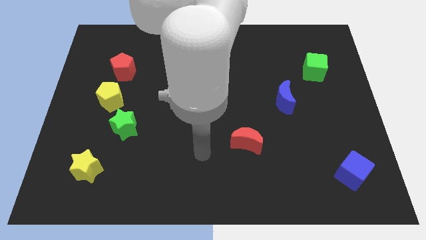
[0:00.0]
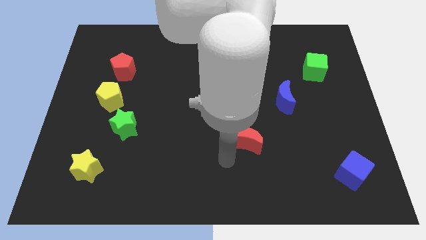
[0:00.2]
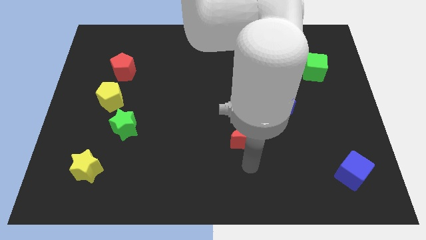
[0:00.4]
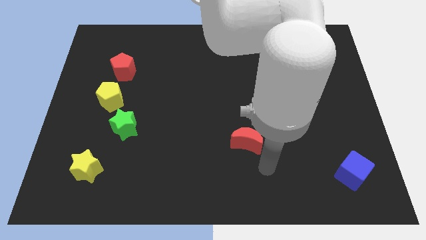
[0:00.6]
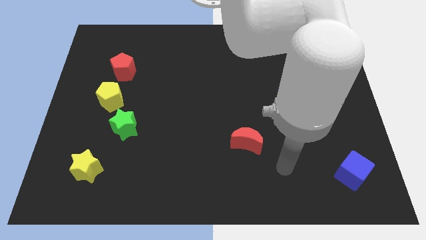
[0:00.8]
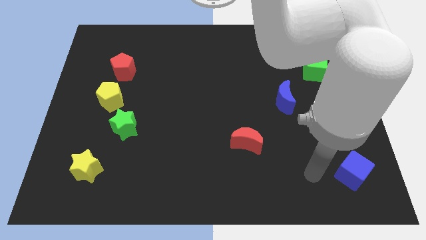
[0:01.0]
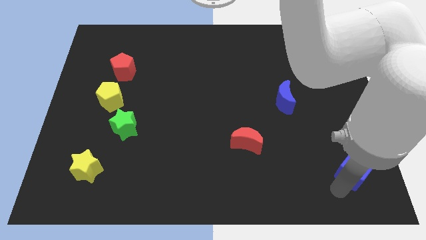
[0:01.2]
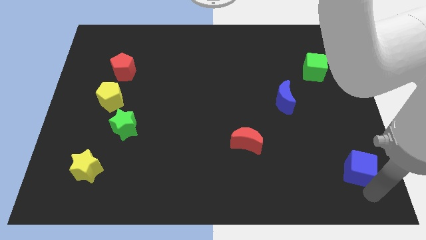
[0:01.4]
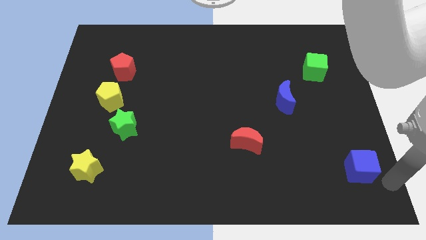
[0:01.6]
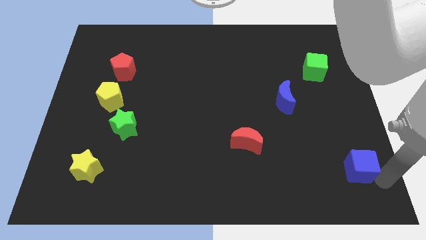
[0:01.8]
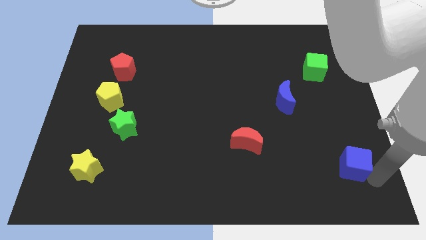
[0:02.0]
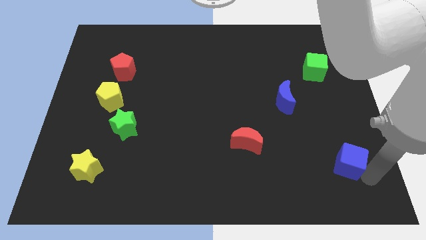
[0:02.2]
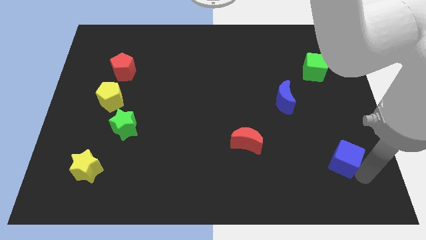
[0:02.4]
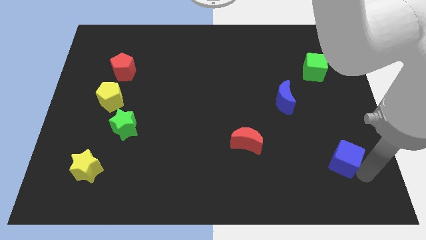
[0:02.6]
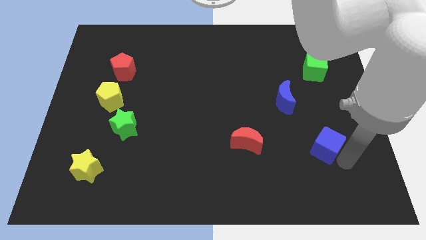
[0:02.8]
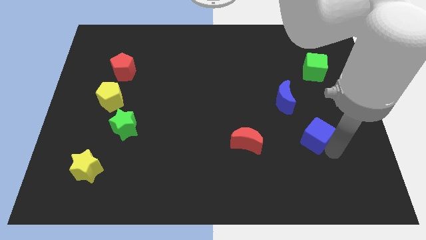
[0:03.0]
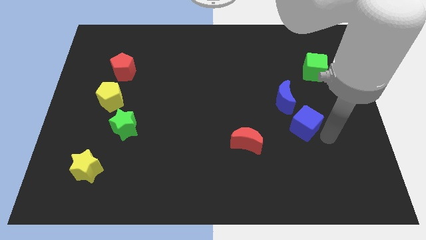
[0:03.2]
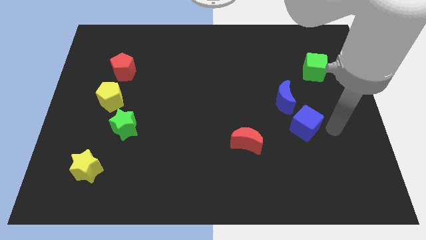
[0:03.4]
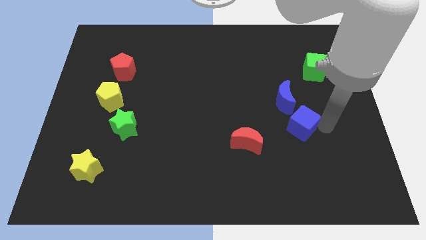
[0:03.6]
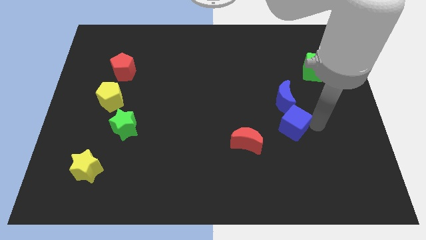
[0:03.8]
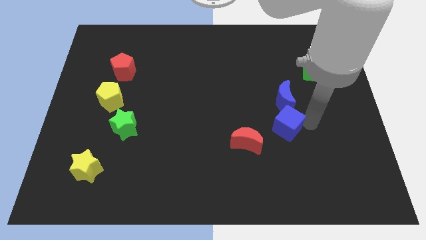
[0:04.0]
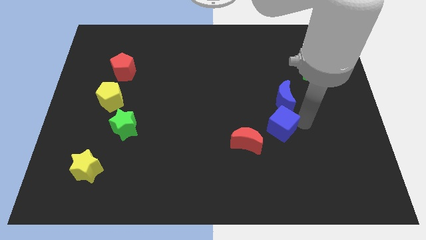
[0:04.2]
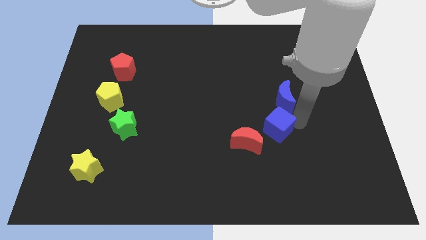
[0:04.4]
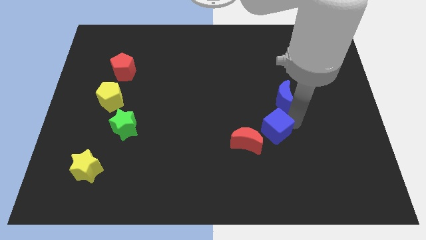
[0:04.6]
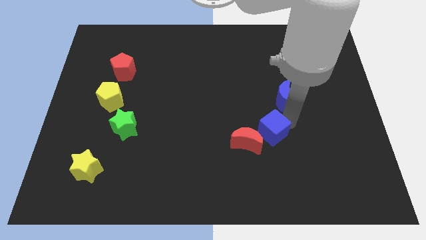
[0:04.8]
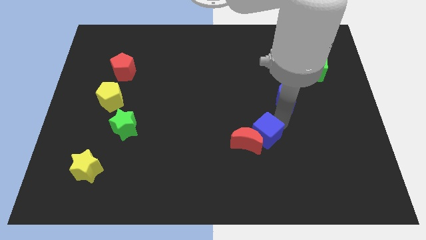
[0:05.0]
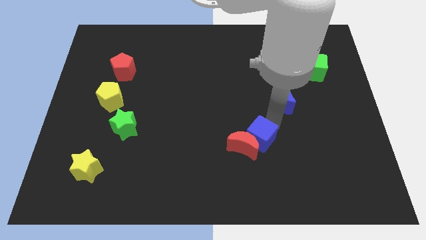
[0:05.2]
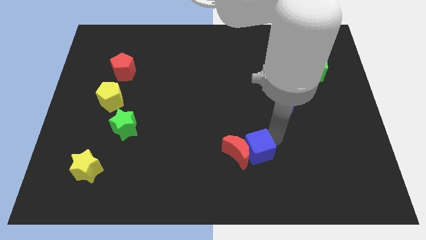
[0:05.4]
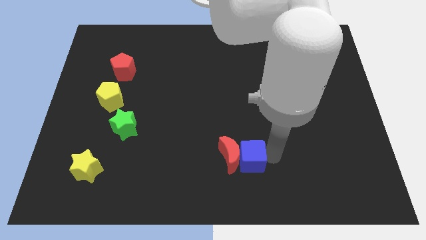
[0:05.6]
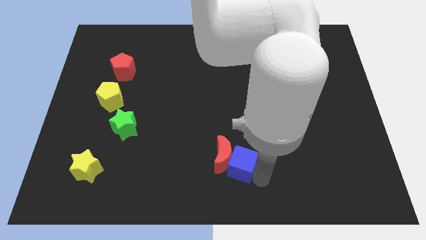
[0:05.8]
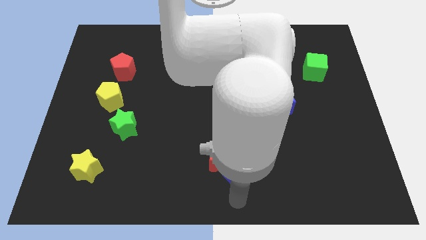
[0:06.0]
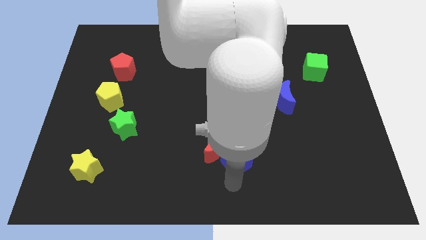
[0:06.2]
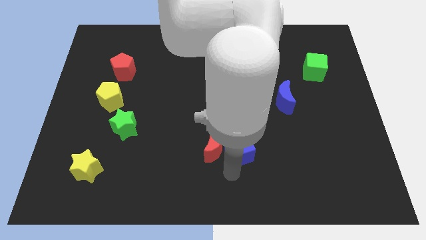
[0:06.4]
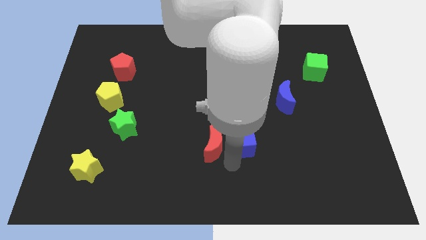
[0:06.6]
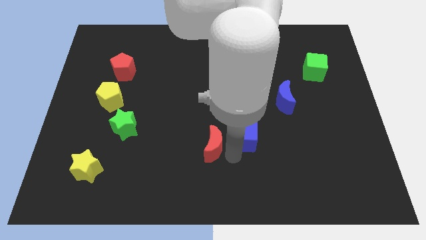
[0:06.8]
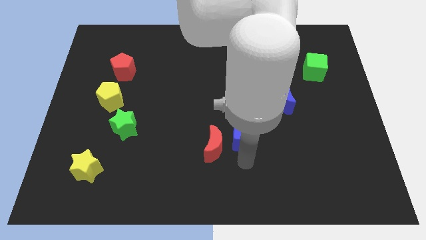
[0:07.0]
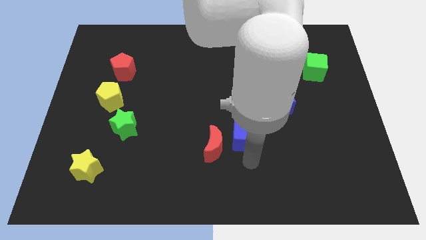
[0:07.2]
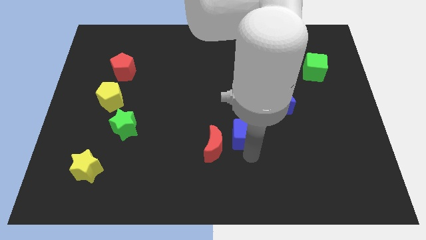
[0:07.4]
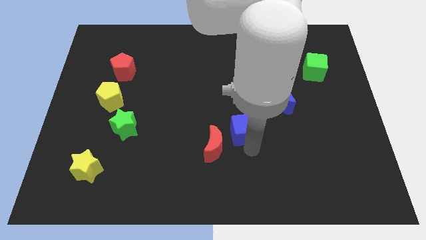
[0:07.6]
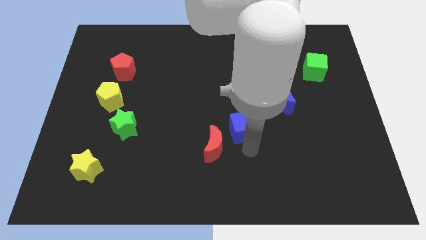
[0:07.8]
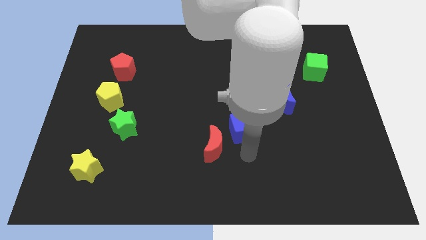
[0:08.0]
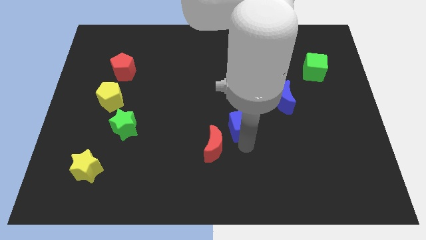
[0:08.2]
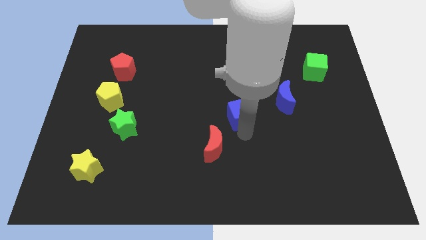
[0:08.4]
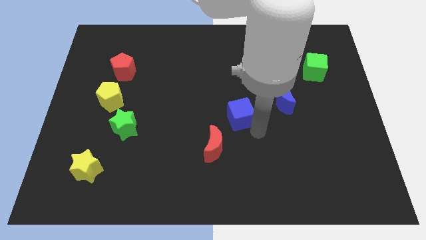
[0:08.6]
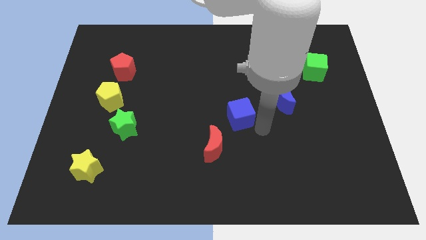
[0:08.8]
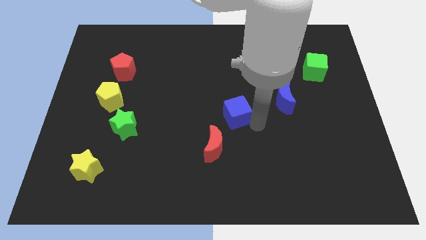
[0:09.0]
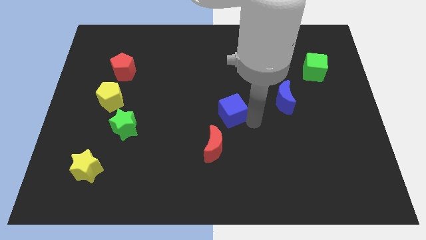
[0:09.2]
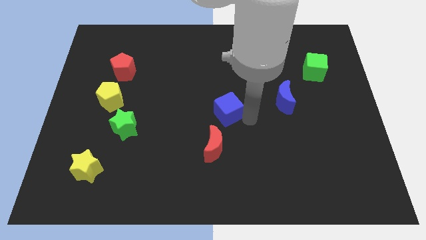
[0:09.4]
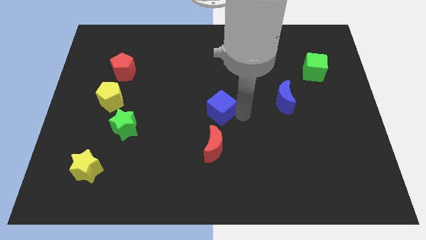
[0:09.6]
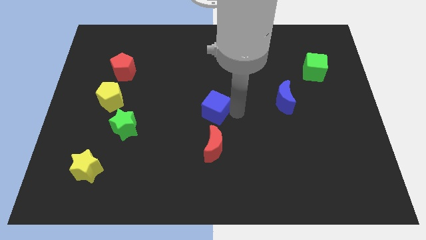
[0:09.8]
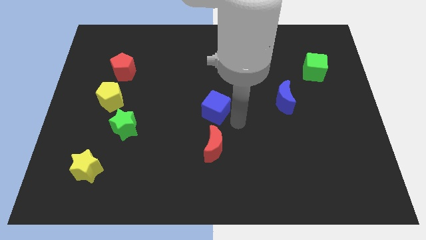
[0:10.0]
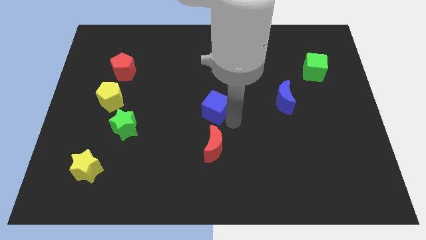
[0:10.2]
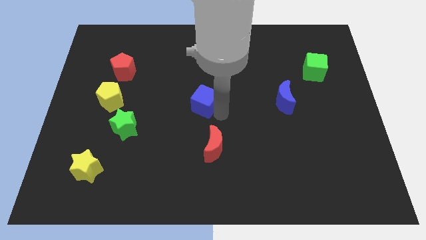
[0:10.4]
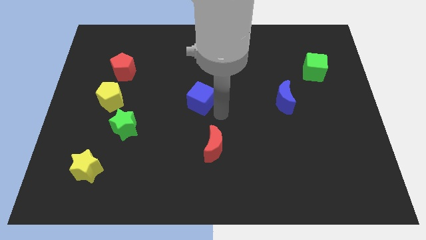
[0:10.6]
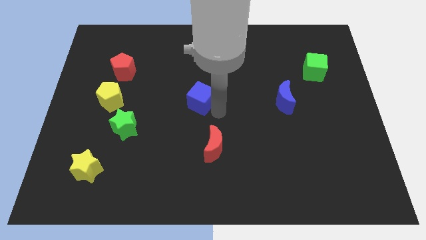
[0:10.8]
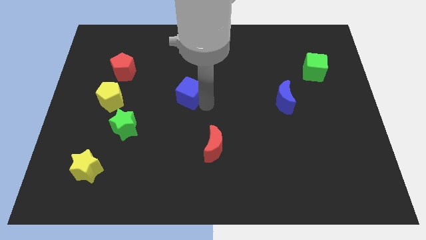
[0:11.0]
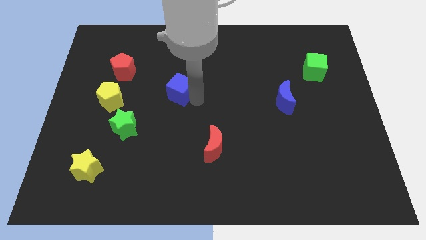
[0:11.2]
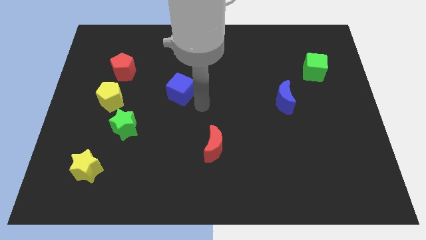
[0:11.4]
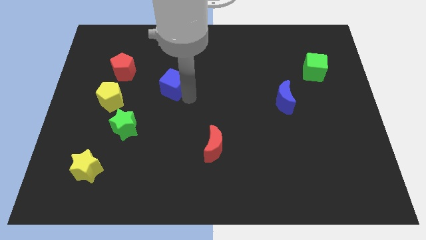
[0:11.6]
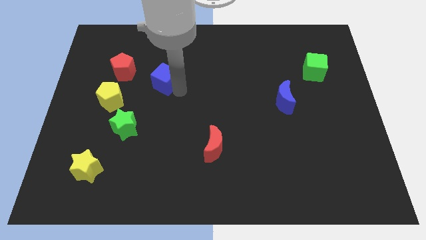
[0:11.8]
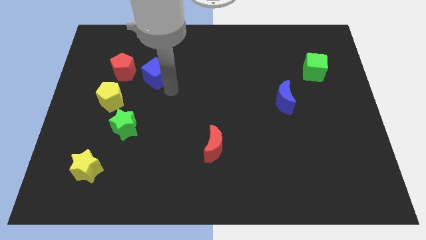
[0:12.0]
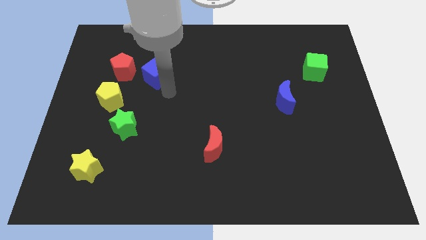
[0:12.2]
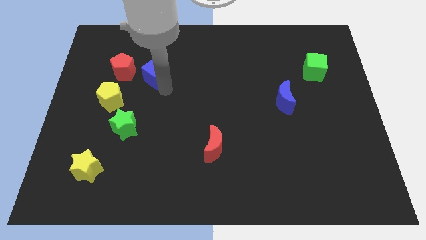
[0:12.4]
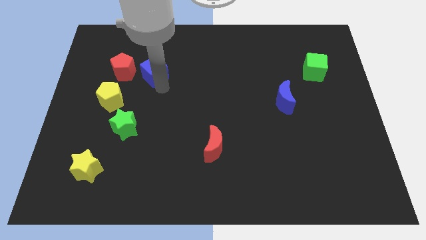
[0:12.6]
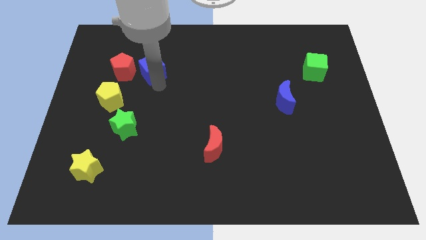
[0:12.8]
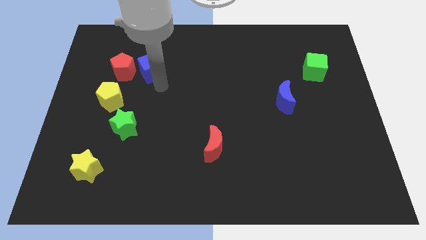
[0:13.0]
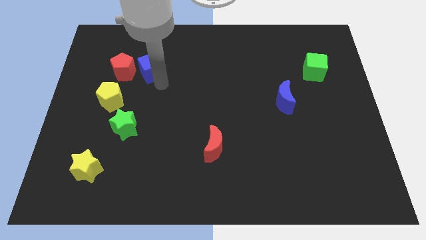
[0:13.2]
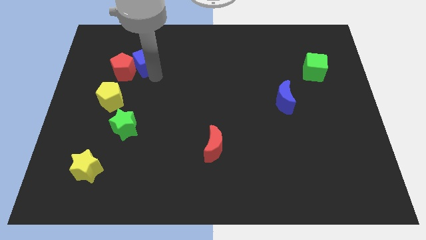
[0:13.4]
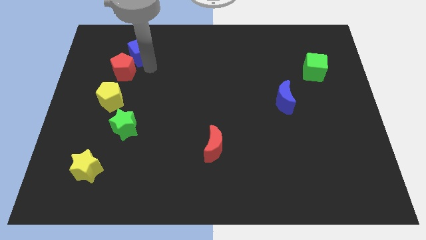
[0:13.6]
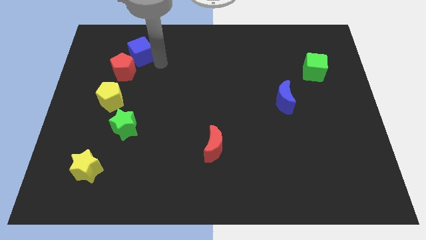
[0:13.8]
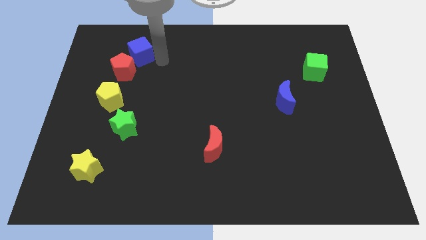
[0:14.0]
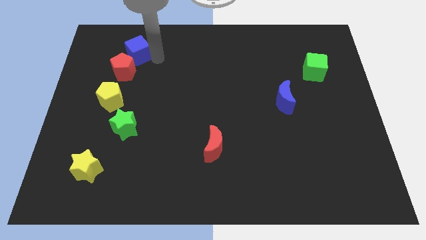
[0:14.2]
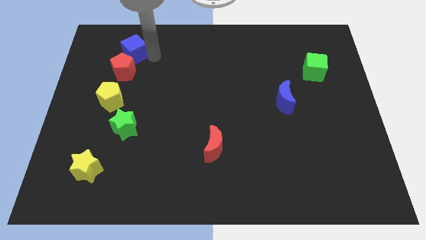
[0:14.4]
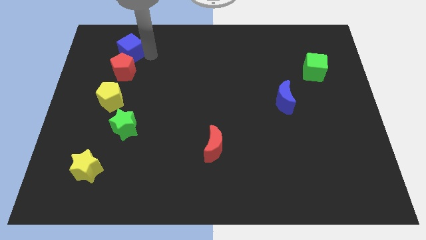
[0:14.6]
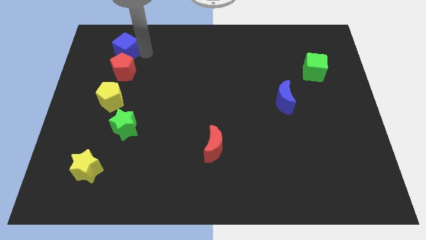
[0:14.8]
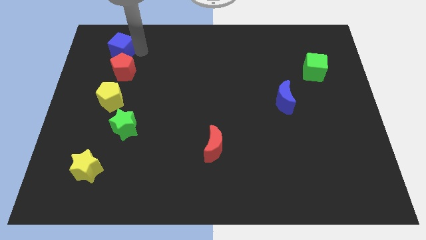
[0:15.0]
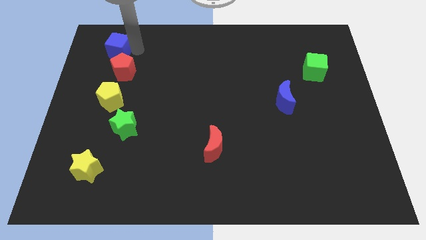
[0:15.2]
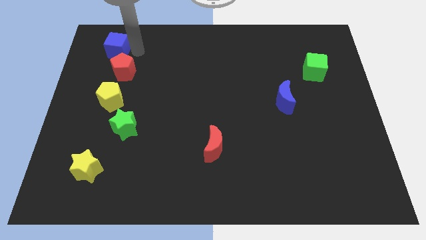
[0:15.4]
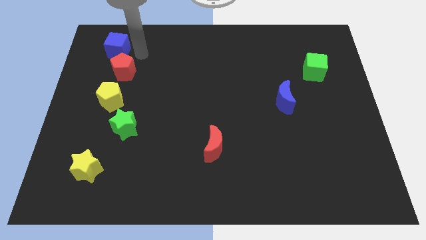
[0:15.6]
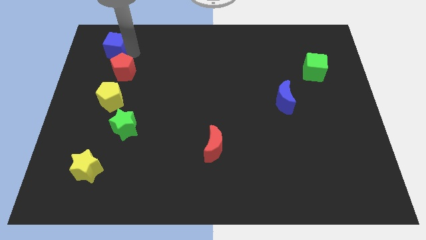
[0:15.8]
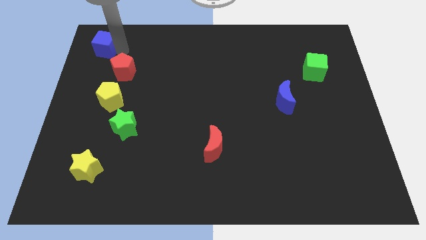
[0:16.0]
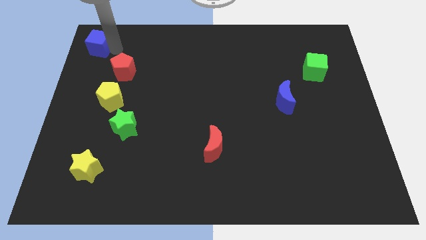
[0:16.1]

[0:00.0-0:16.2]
push the blue cube to the top left of the board
